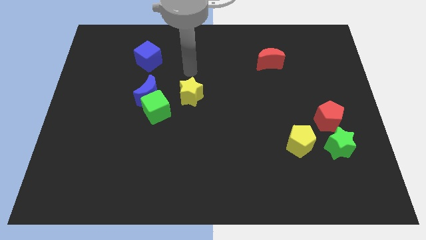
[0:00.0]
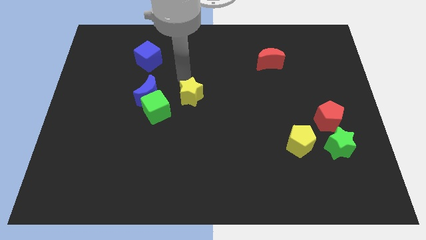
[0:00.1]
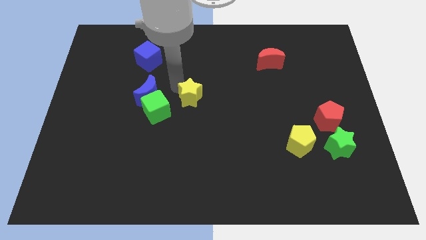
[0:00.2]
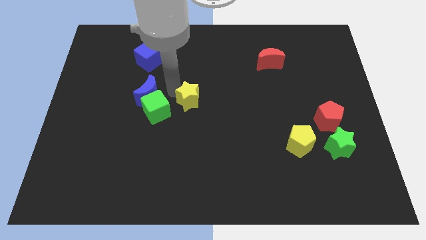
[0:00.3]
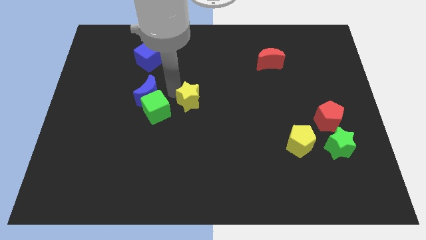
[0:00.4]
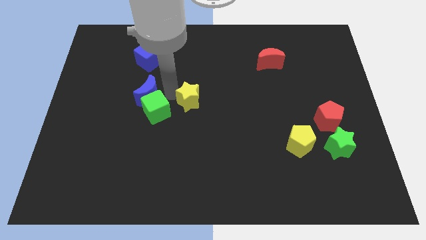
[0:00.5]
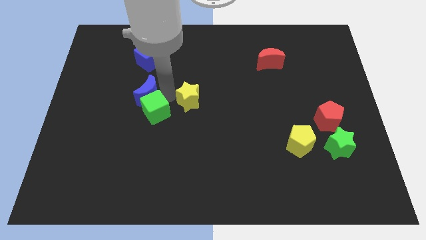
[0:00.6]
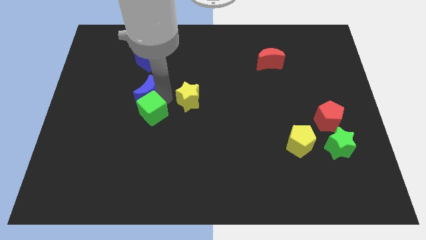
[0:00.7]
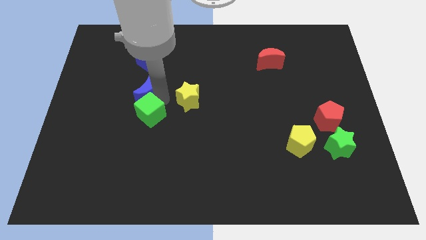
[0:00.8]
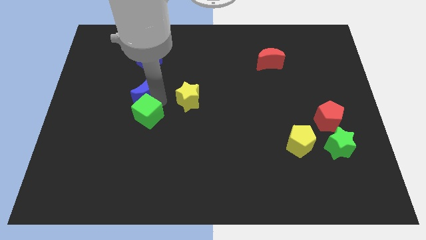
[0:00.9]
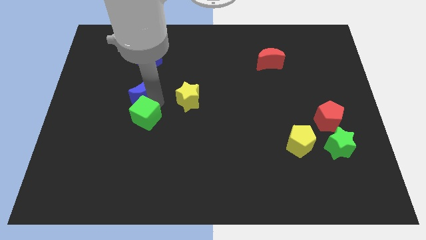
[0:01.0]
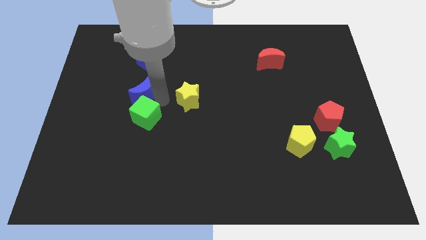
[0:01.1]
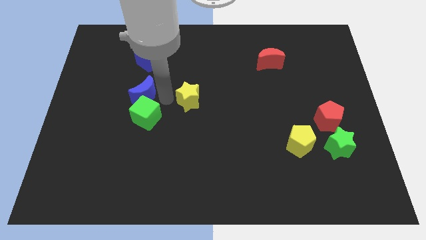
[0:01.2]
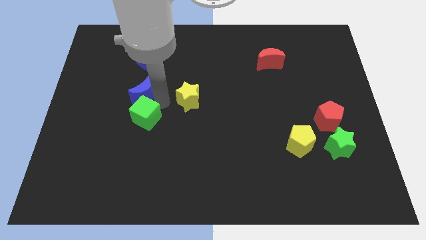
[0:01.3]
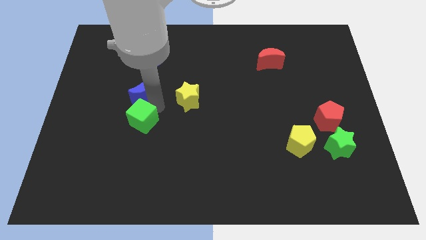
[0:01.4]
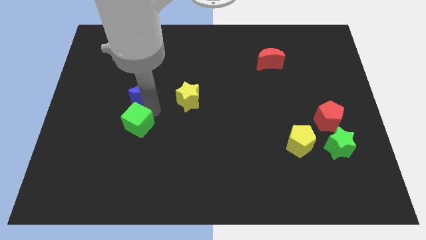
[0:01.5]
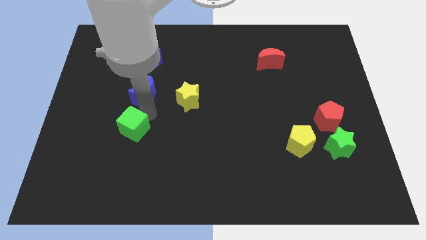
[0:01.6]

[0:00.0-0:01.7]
separate the green cube from the blue moon and yellow star

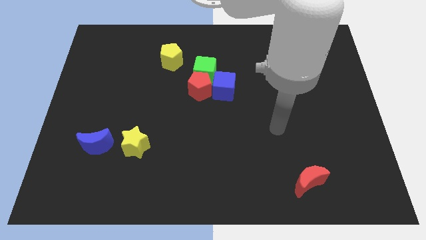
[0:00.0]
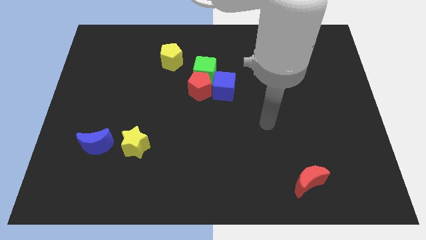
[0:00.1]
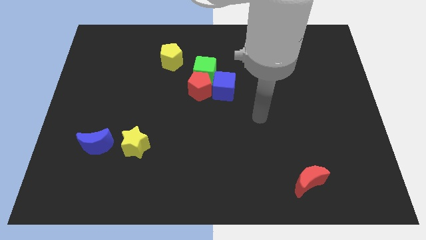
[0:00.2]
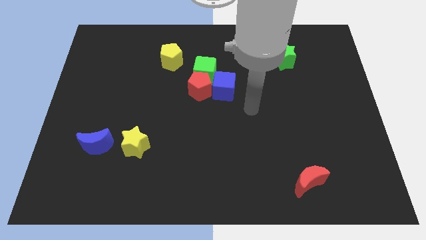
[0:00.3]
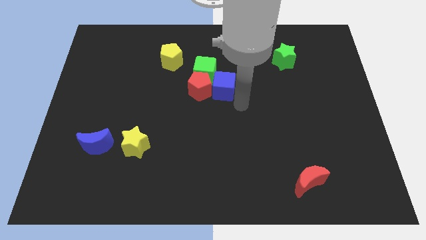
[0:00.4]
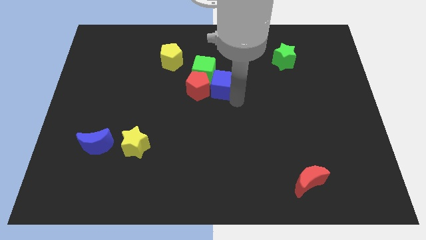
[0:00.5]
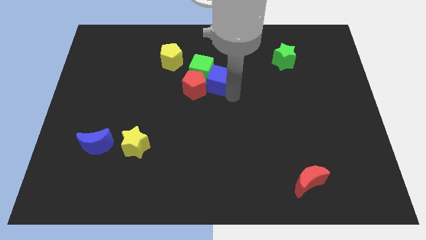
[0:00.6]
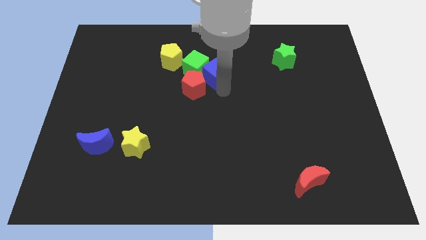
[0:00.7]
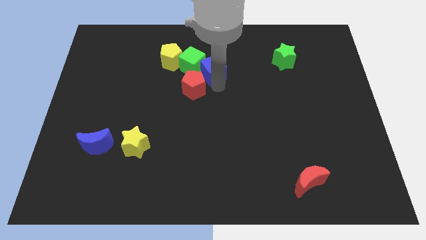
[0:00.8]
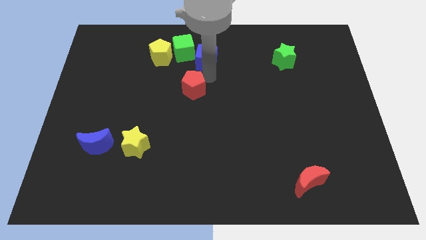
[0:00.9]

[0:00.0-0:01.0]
separate the red pentagon from the green cube and blue cube

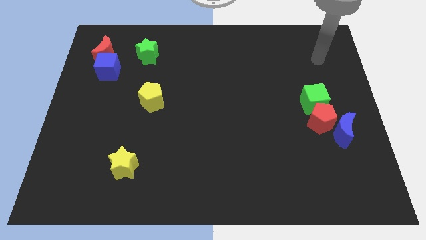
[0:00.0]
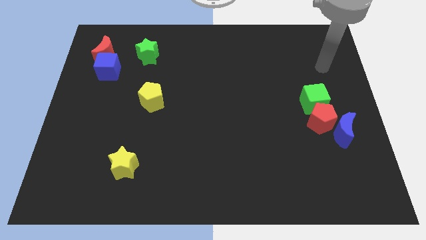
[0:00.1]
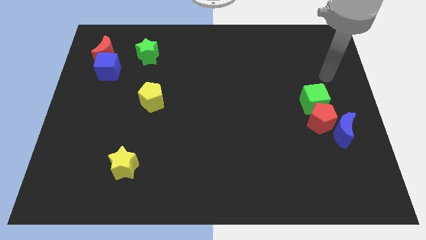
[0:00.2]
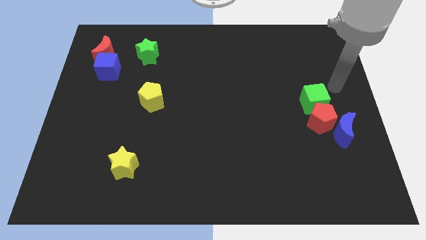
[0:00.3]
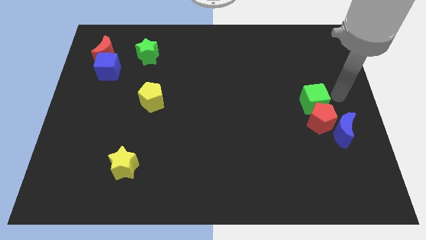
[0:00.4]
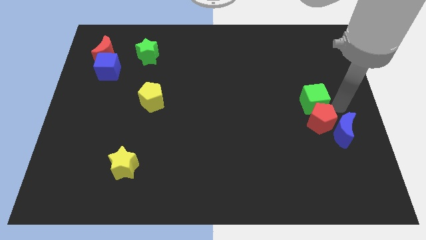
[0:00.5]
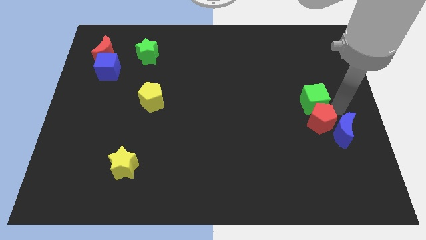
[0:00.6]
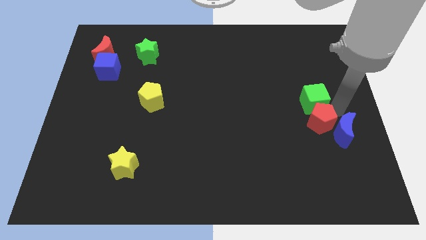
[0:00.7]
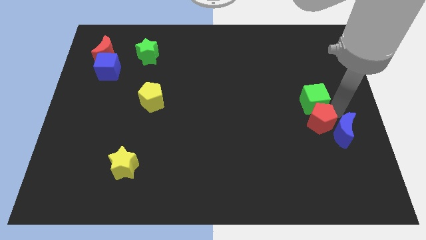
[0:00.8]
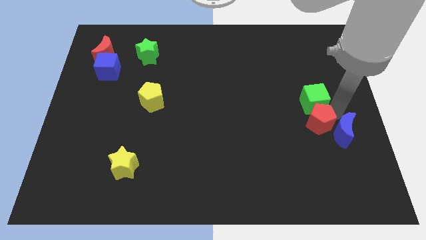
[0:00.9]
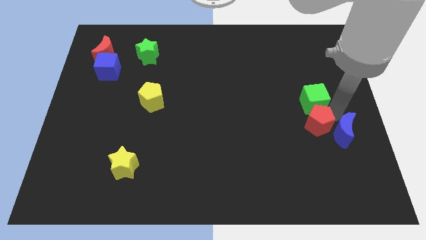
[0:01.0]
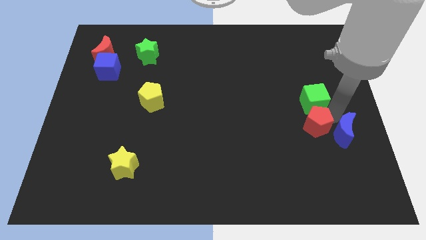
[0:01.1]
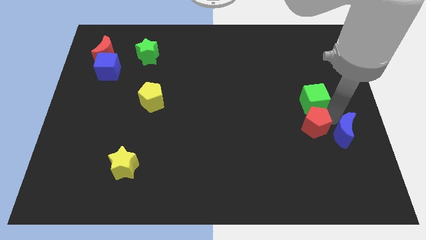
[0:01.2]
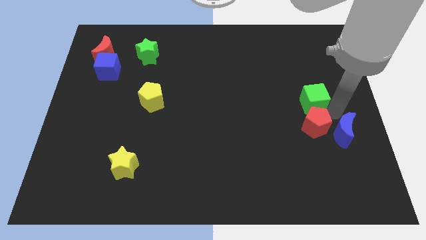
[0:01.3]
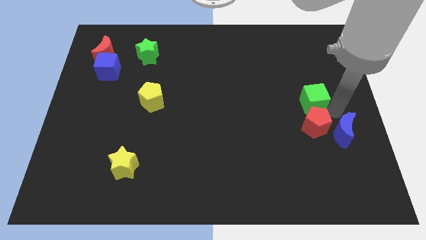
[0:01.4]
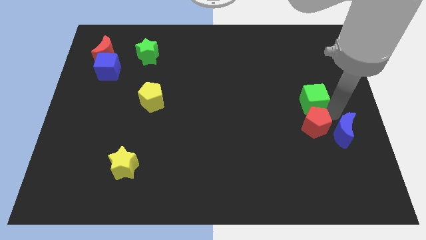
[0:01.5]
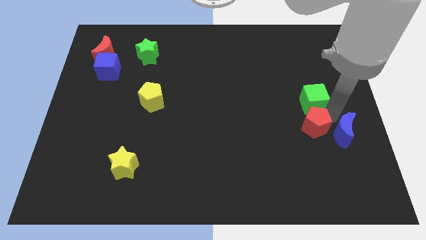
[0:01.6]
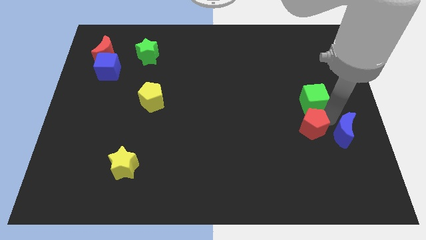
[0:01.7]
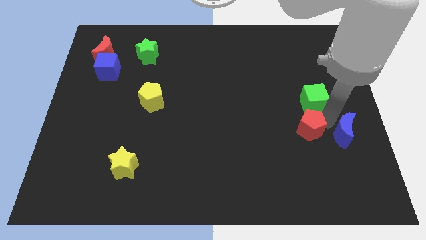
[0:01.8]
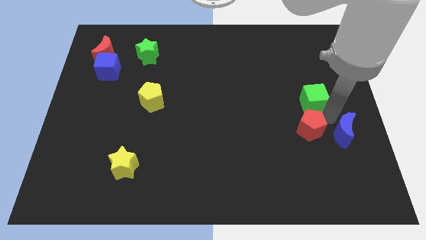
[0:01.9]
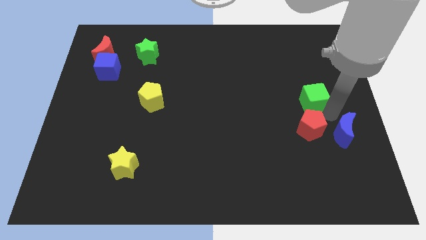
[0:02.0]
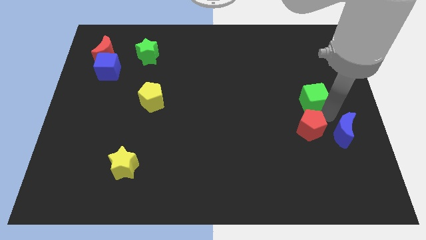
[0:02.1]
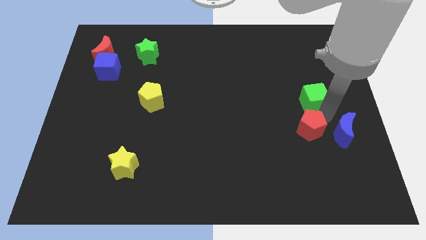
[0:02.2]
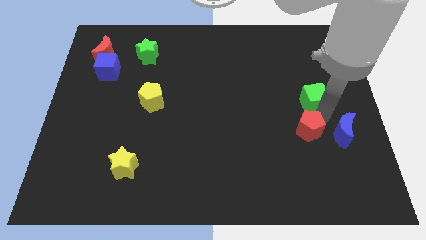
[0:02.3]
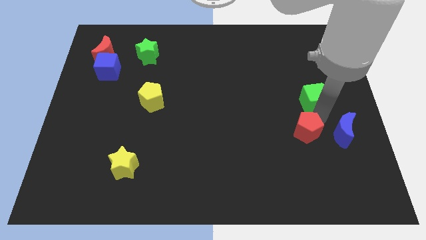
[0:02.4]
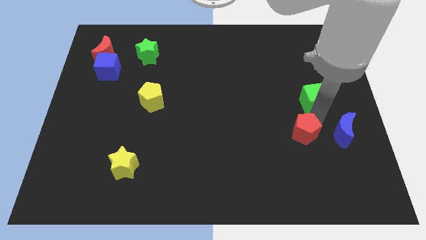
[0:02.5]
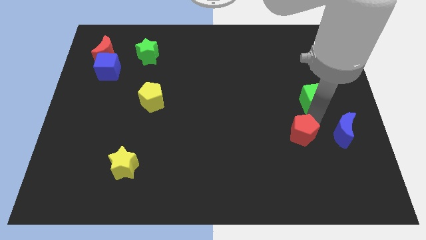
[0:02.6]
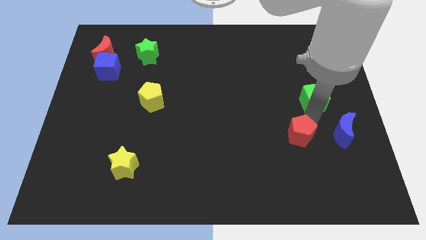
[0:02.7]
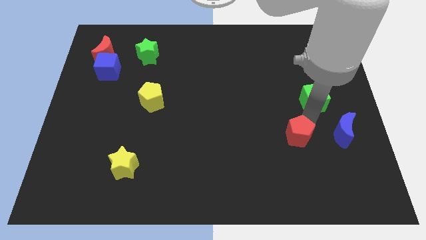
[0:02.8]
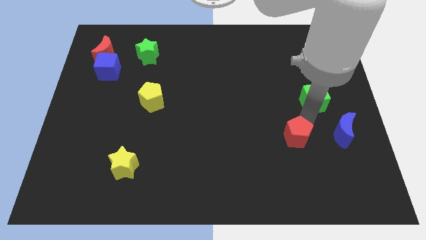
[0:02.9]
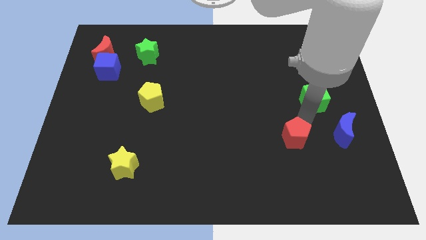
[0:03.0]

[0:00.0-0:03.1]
move the red pentagon away from the blue moon and green cube

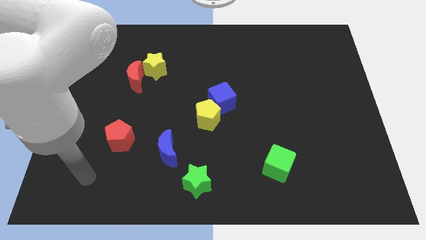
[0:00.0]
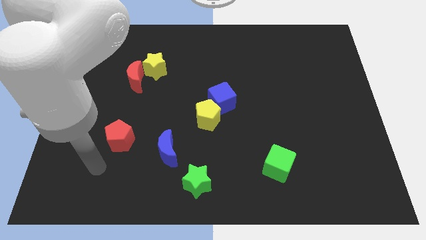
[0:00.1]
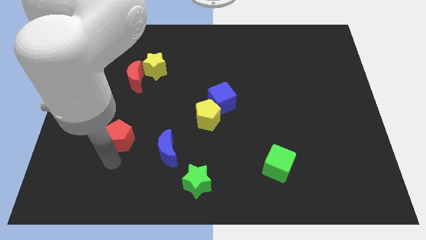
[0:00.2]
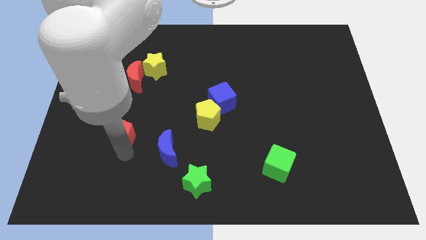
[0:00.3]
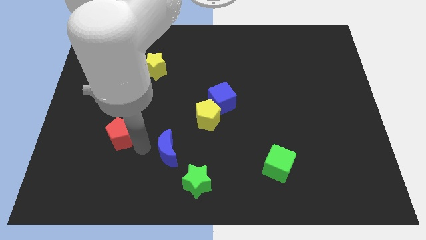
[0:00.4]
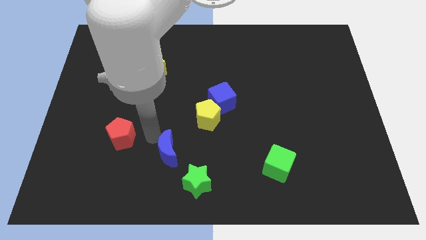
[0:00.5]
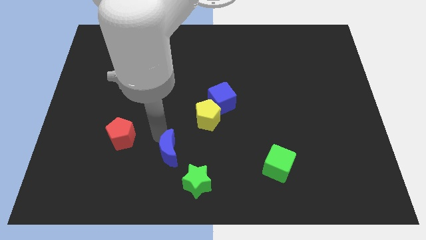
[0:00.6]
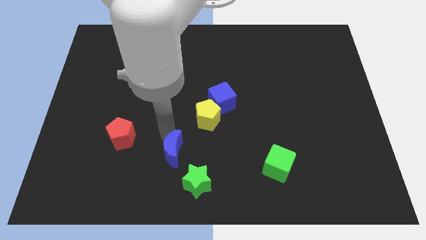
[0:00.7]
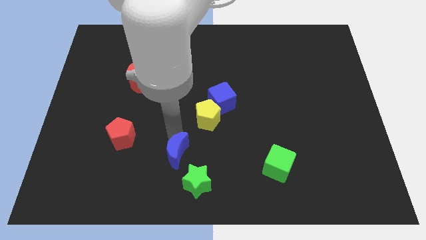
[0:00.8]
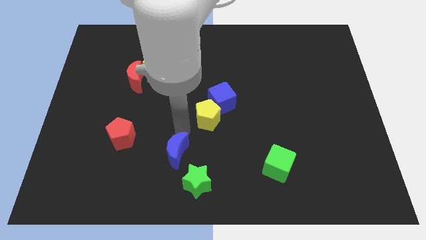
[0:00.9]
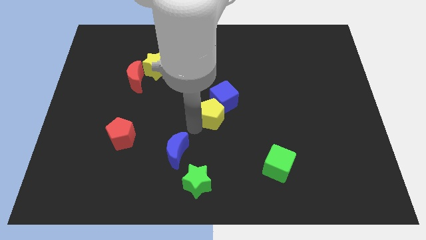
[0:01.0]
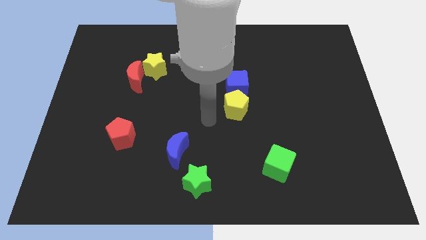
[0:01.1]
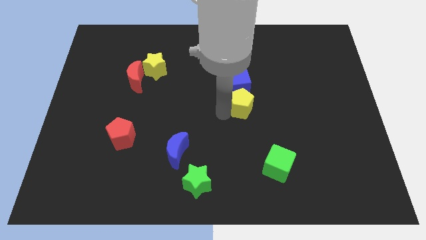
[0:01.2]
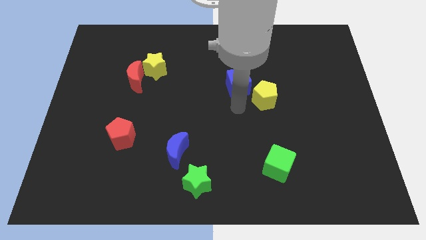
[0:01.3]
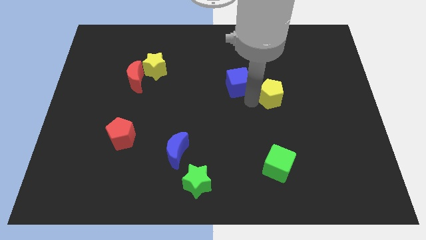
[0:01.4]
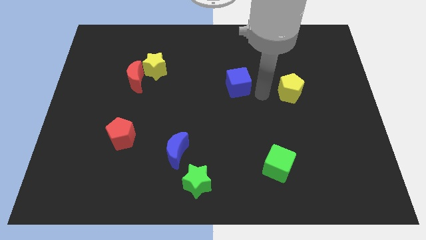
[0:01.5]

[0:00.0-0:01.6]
move the blue cube away from the yellow pentagon

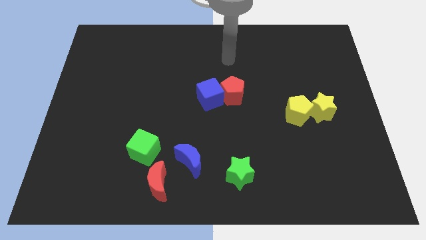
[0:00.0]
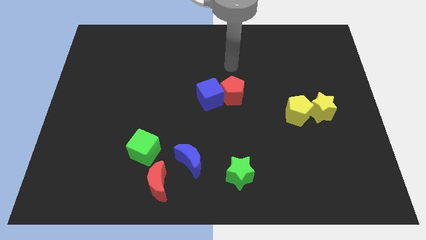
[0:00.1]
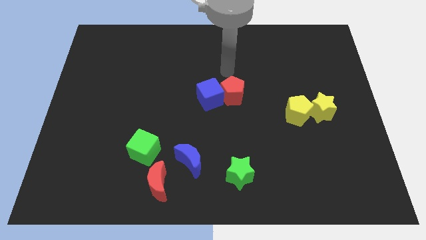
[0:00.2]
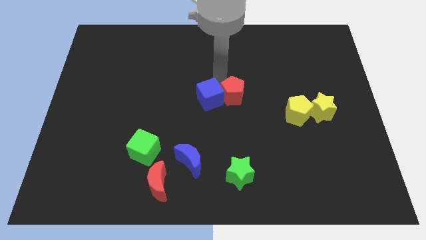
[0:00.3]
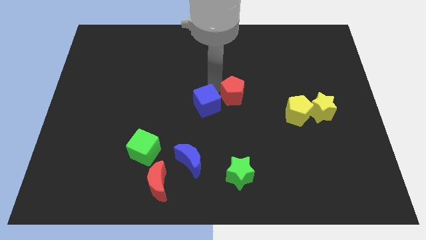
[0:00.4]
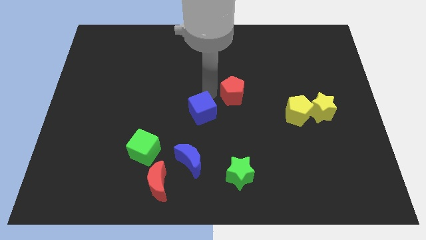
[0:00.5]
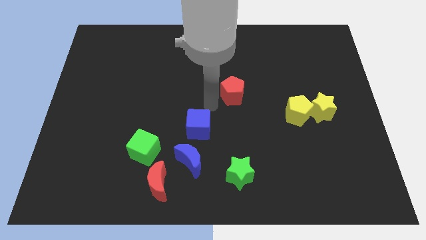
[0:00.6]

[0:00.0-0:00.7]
pull the red pentagon apart from the blue cube

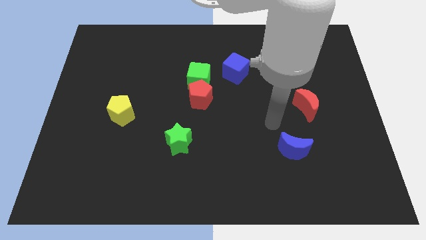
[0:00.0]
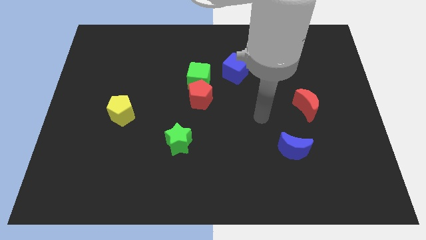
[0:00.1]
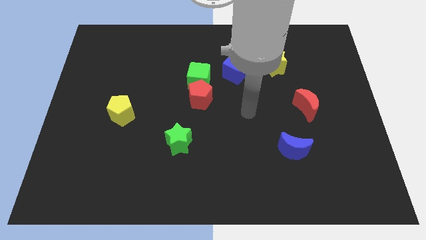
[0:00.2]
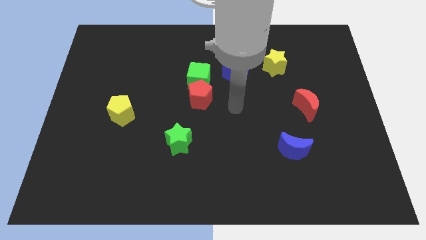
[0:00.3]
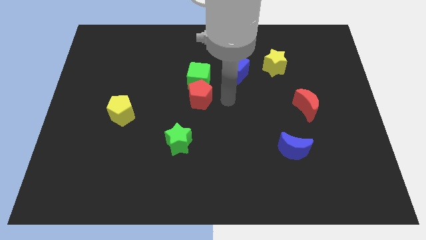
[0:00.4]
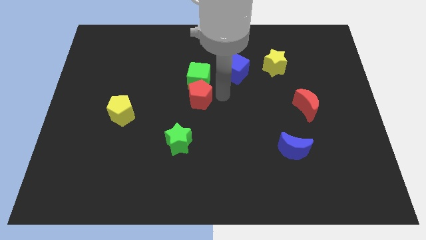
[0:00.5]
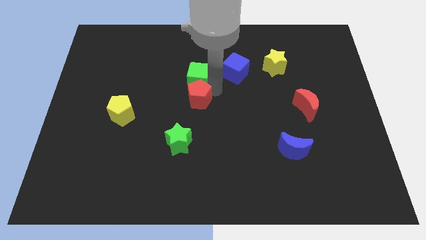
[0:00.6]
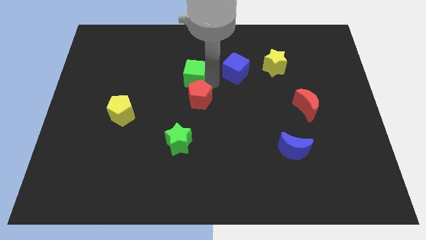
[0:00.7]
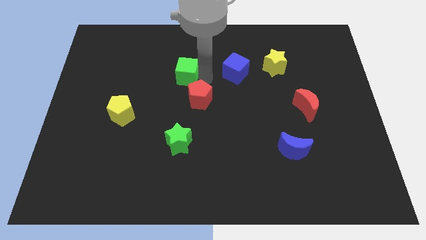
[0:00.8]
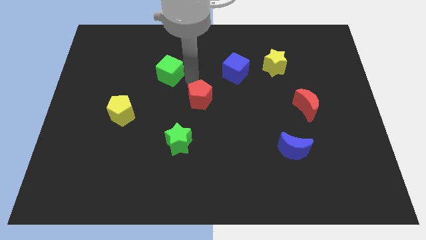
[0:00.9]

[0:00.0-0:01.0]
move the red pentagon away from the green cube

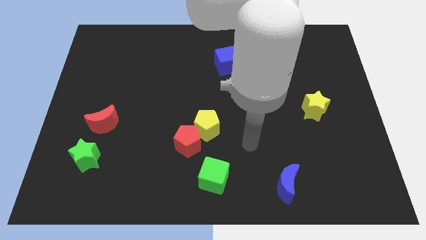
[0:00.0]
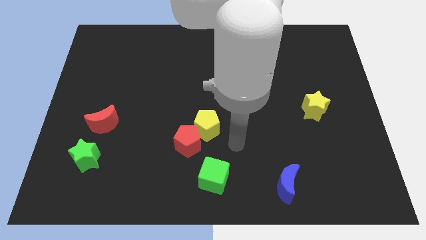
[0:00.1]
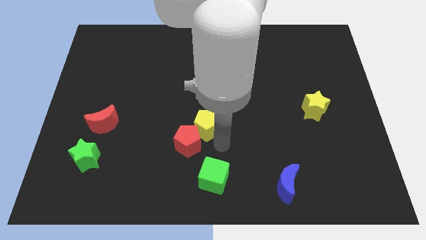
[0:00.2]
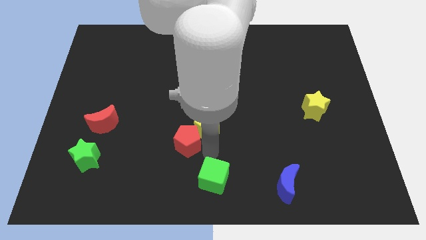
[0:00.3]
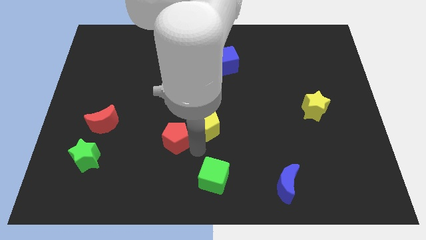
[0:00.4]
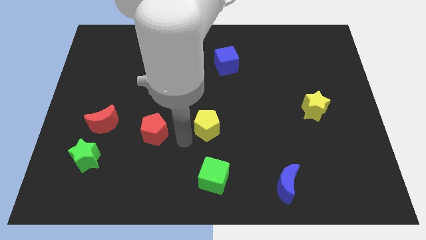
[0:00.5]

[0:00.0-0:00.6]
separate the yellow pentagon from the red pentagon
